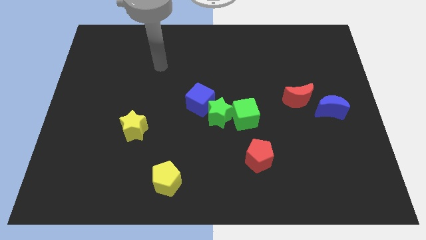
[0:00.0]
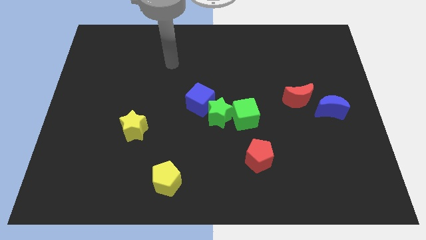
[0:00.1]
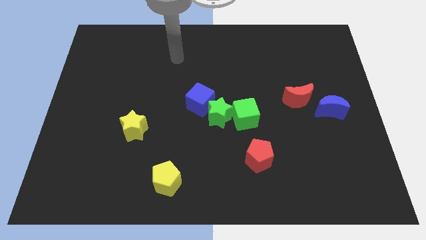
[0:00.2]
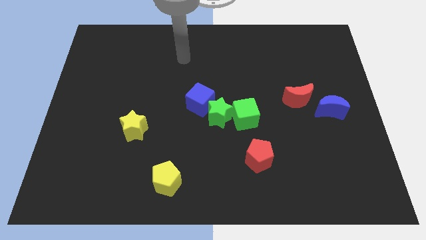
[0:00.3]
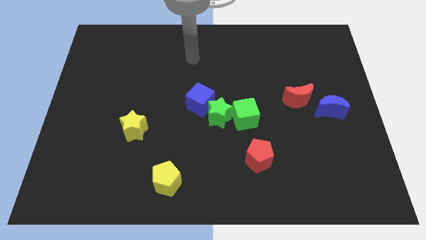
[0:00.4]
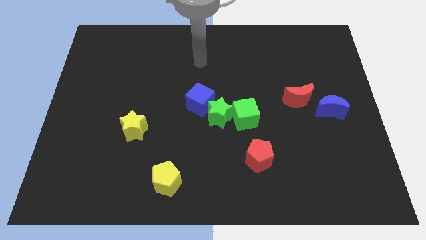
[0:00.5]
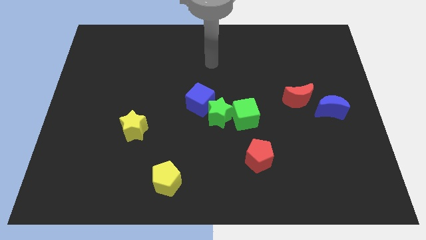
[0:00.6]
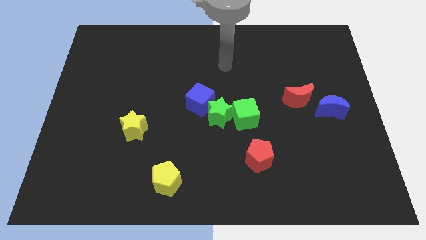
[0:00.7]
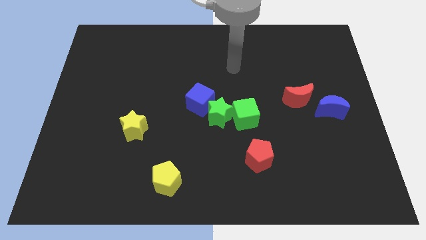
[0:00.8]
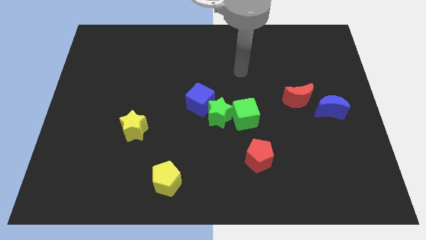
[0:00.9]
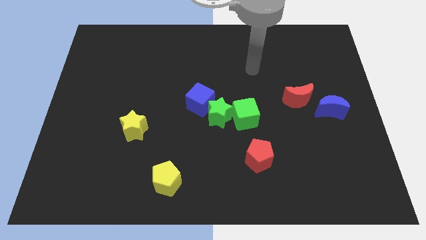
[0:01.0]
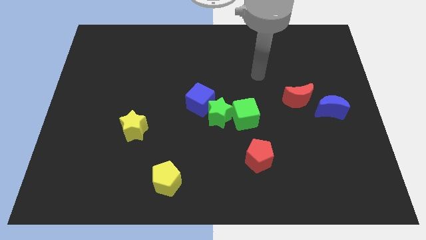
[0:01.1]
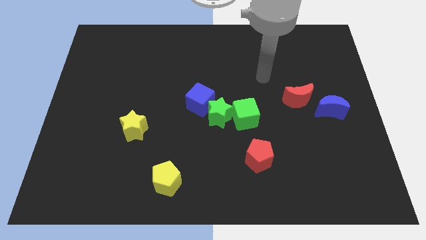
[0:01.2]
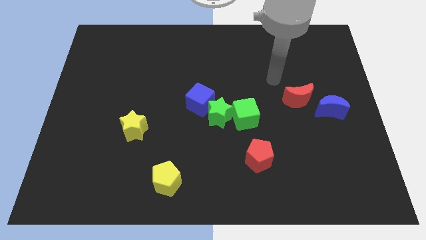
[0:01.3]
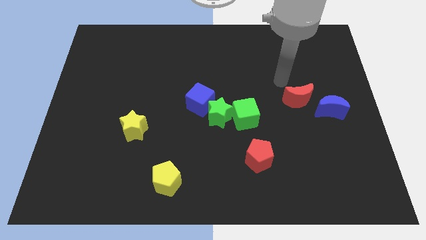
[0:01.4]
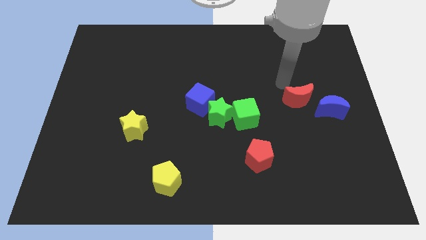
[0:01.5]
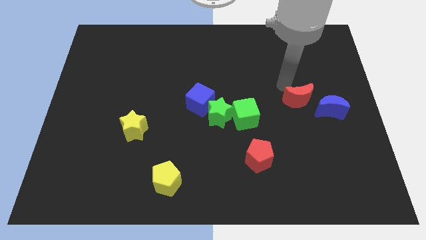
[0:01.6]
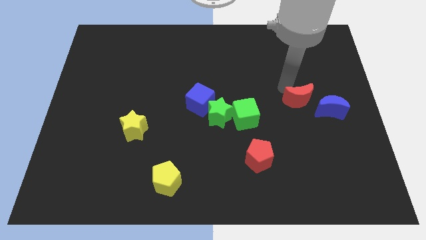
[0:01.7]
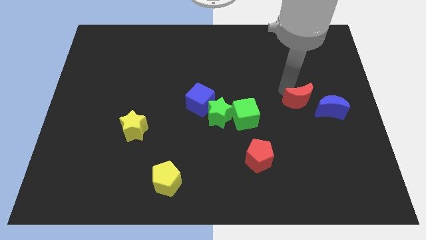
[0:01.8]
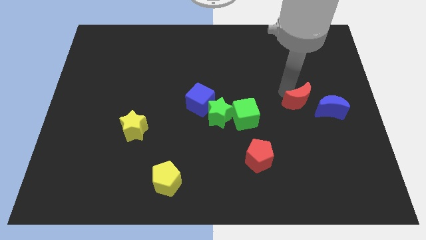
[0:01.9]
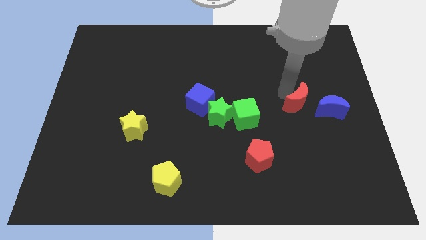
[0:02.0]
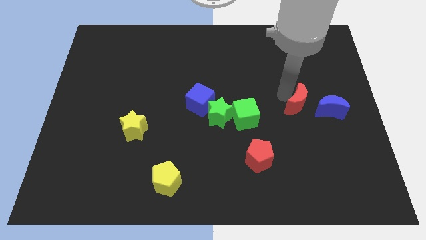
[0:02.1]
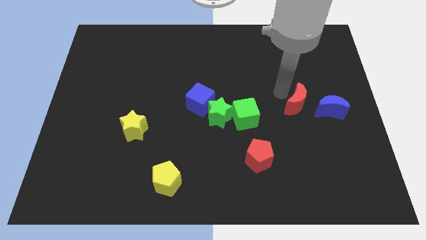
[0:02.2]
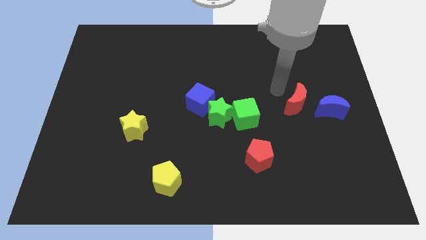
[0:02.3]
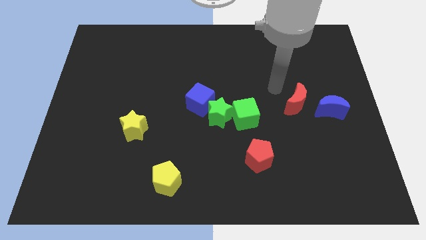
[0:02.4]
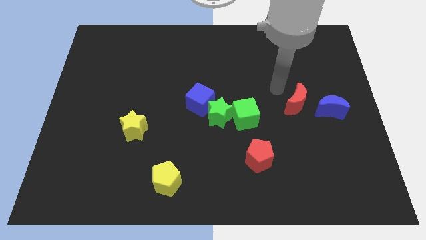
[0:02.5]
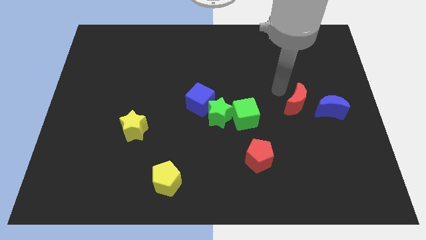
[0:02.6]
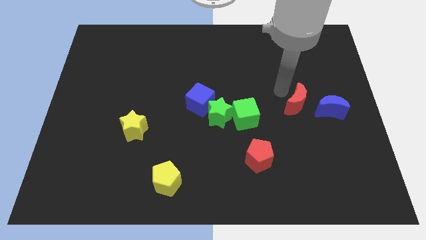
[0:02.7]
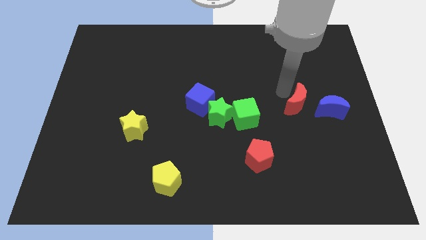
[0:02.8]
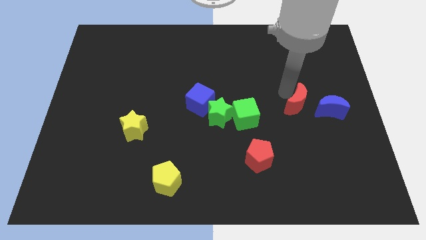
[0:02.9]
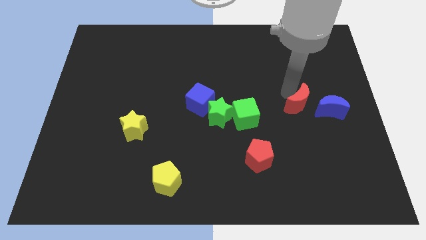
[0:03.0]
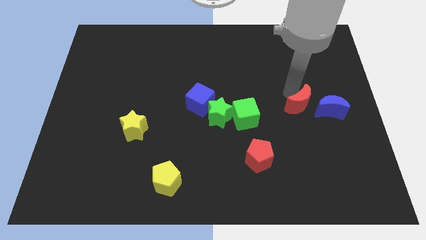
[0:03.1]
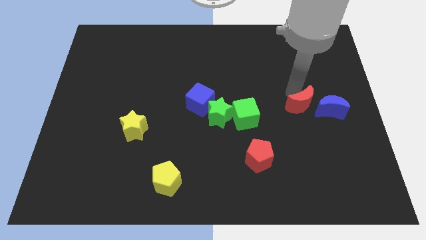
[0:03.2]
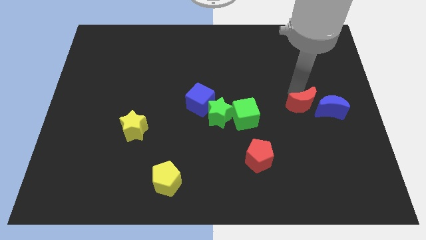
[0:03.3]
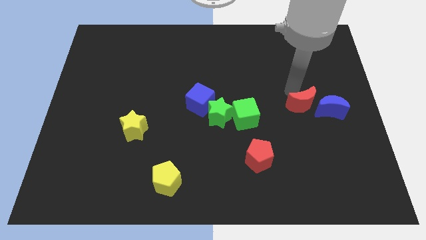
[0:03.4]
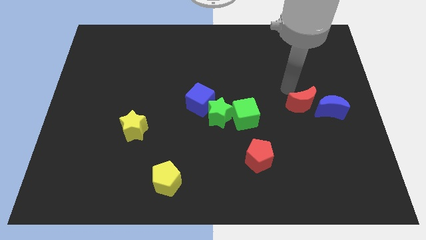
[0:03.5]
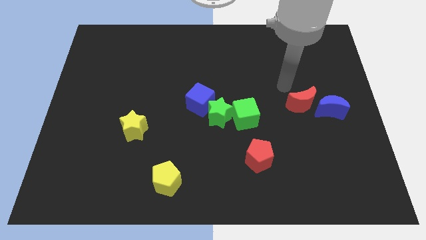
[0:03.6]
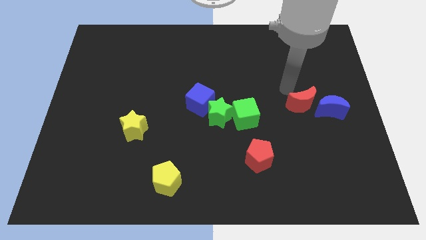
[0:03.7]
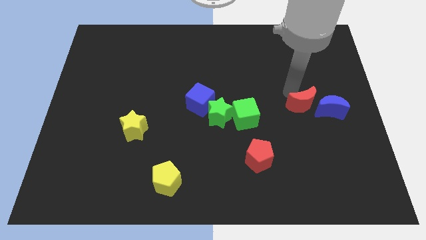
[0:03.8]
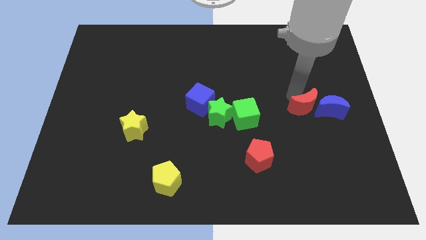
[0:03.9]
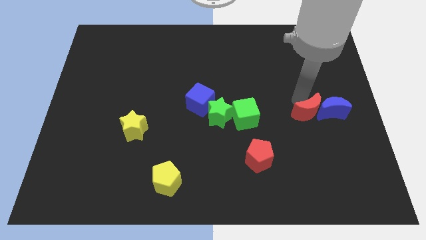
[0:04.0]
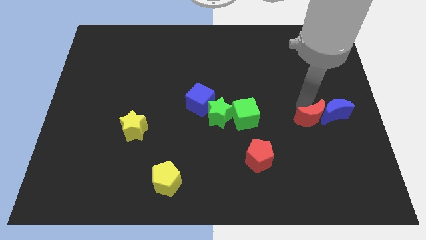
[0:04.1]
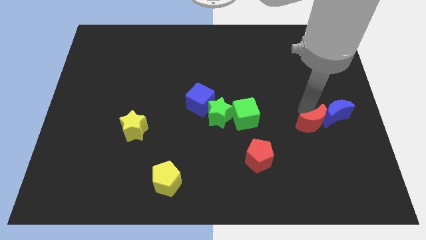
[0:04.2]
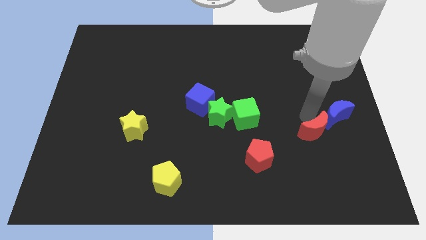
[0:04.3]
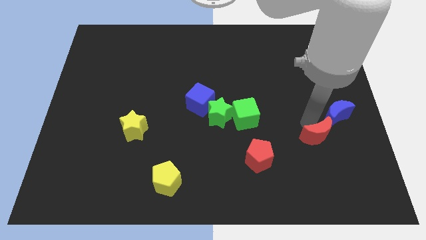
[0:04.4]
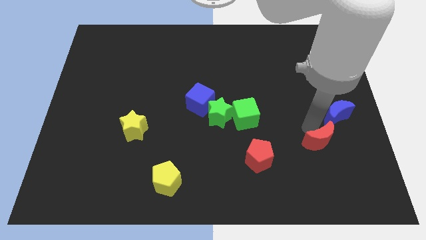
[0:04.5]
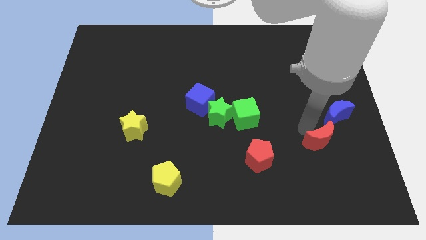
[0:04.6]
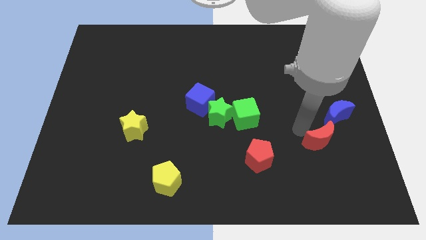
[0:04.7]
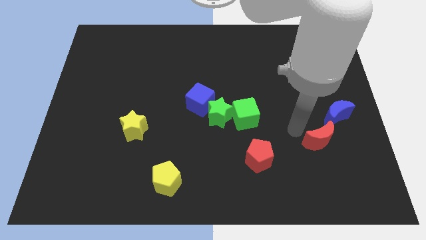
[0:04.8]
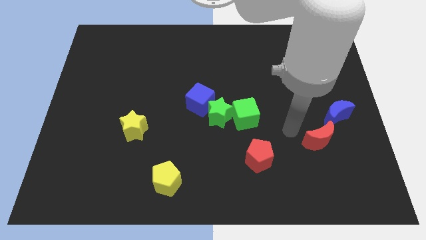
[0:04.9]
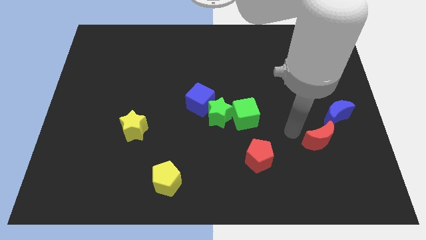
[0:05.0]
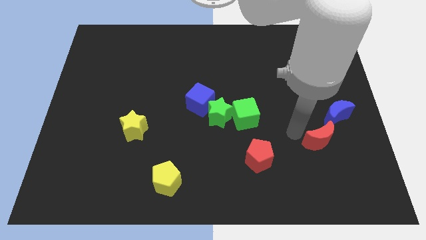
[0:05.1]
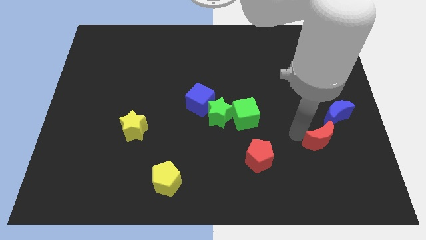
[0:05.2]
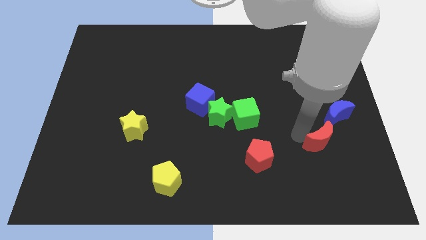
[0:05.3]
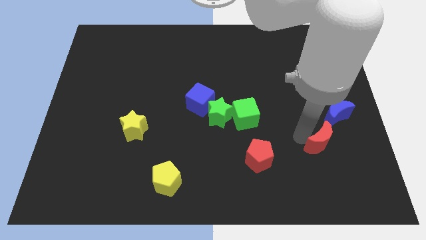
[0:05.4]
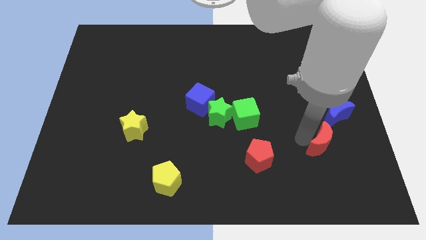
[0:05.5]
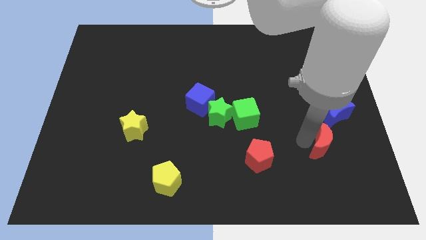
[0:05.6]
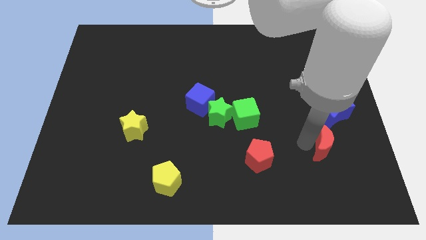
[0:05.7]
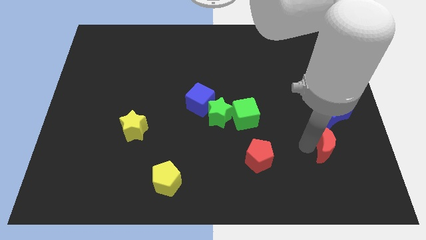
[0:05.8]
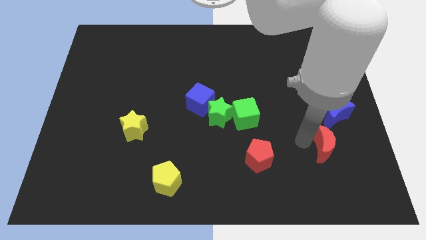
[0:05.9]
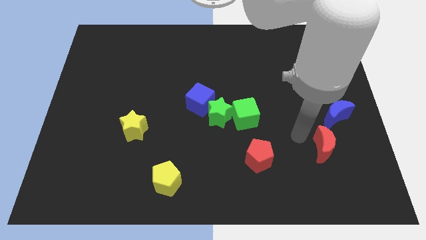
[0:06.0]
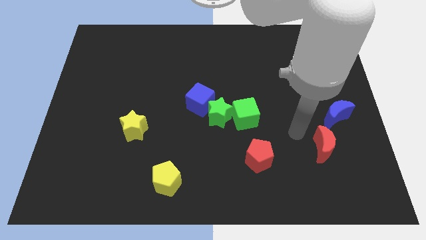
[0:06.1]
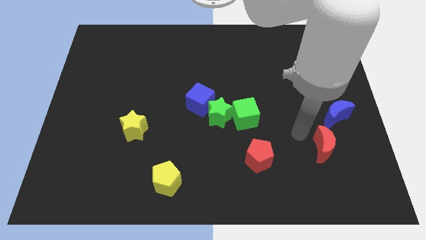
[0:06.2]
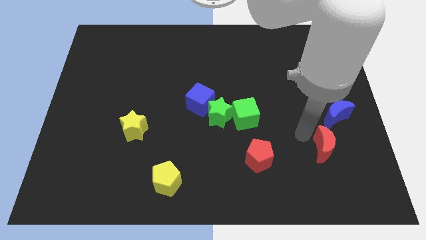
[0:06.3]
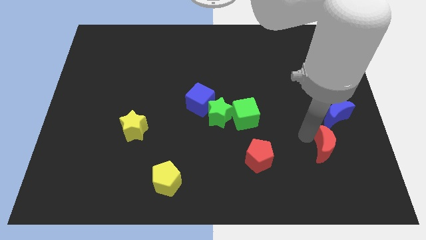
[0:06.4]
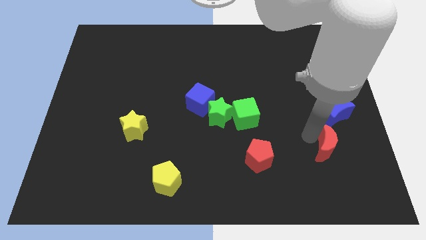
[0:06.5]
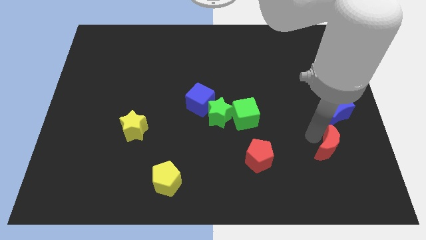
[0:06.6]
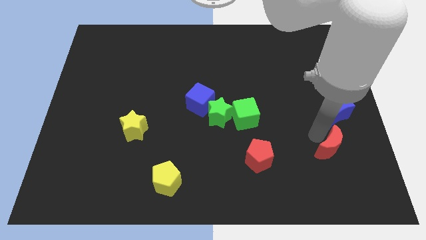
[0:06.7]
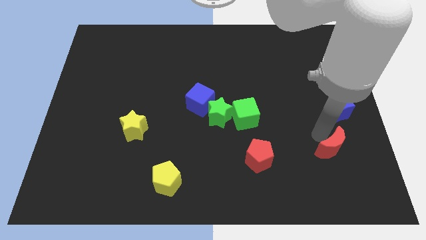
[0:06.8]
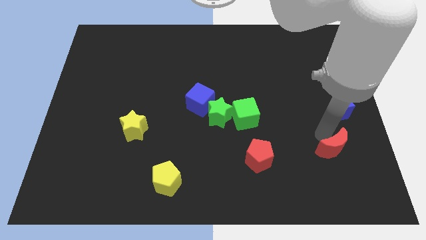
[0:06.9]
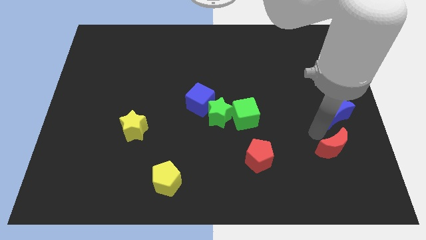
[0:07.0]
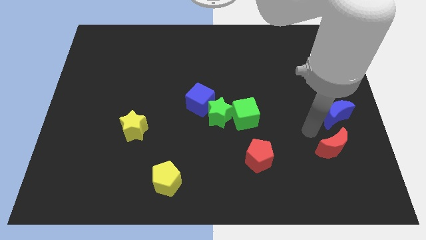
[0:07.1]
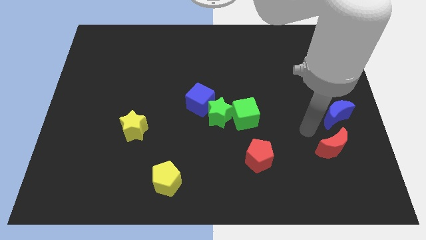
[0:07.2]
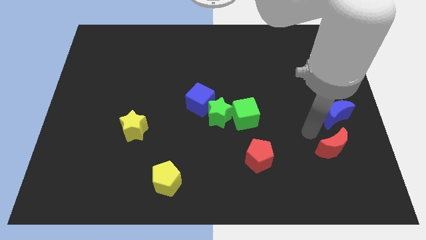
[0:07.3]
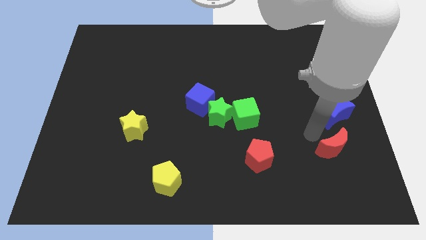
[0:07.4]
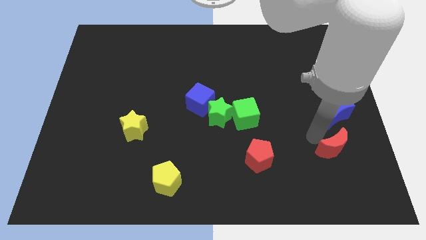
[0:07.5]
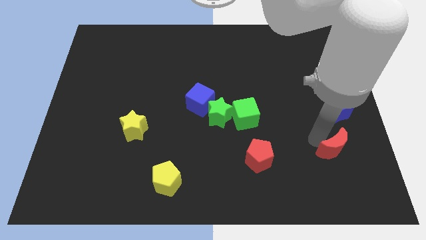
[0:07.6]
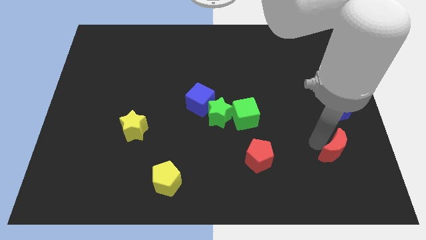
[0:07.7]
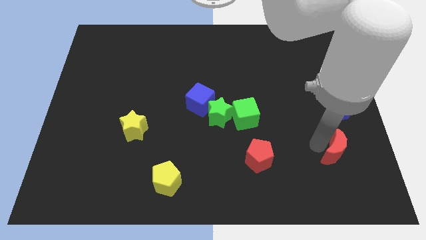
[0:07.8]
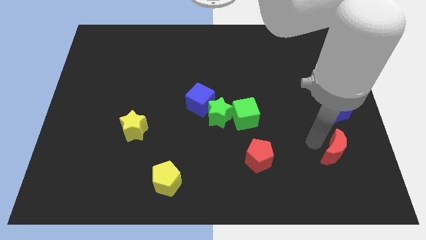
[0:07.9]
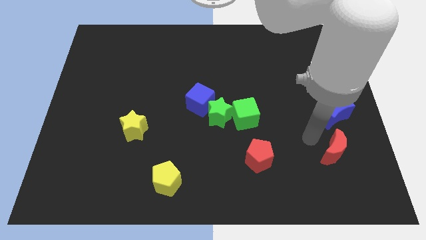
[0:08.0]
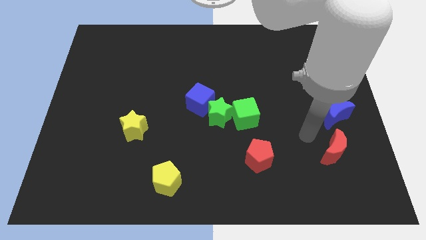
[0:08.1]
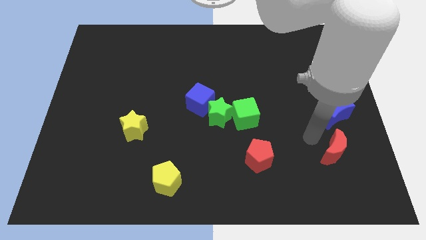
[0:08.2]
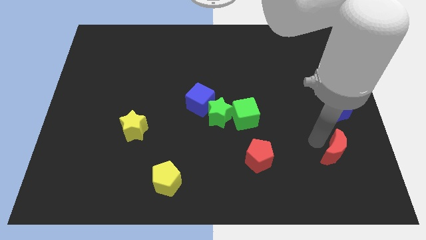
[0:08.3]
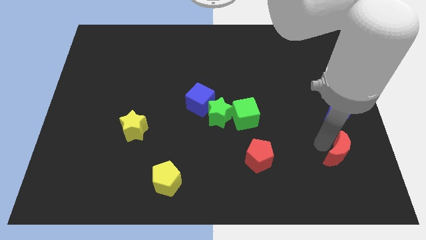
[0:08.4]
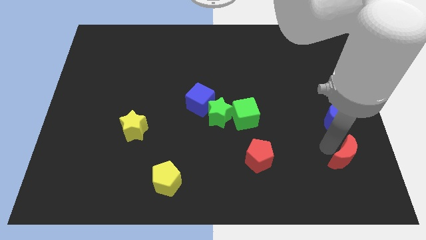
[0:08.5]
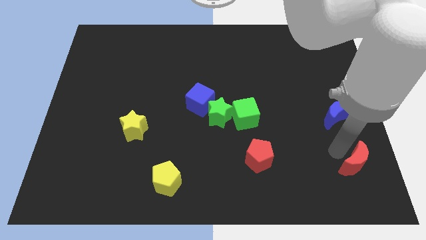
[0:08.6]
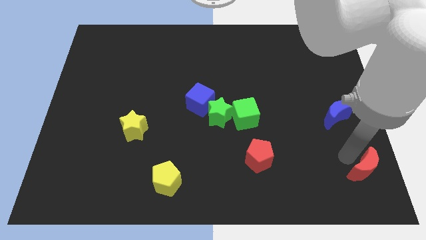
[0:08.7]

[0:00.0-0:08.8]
slide the red moon to the bottom right
